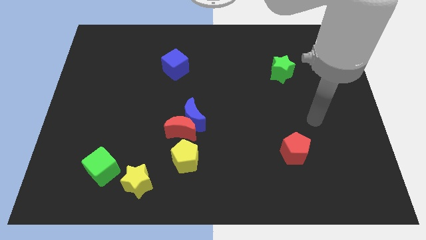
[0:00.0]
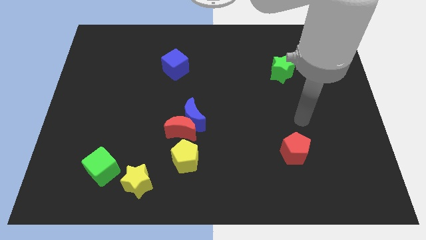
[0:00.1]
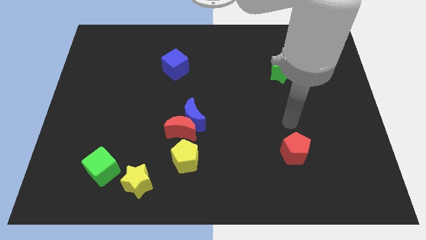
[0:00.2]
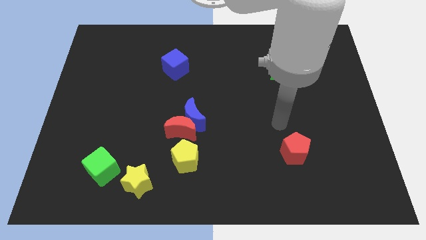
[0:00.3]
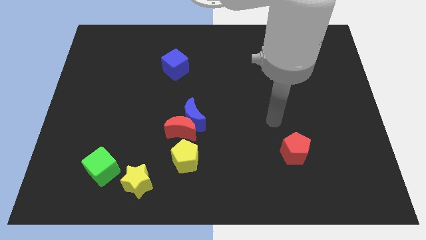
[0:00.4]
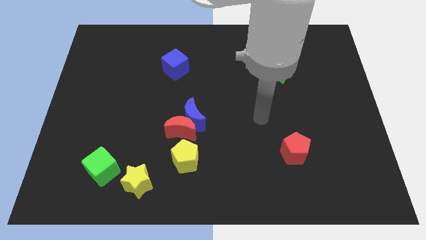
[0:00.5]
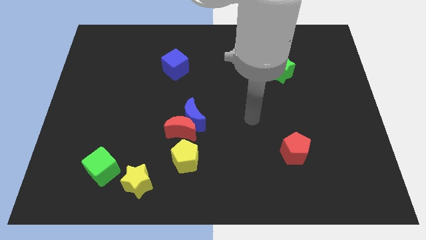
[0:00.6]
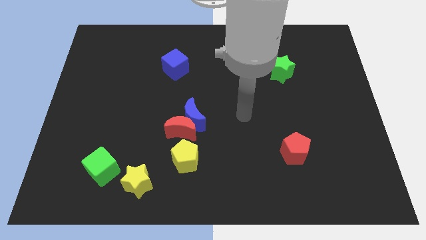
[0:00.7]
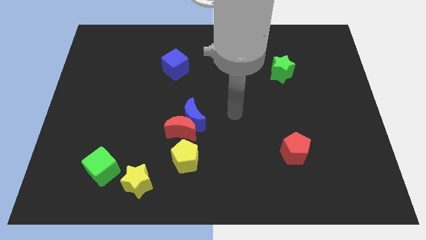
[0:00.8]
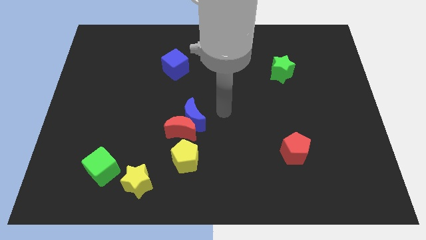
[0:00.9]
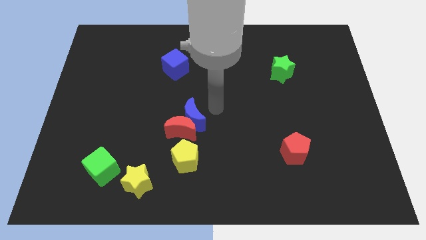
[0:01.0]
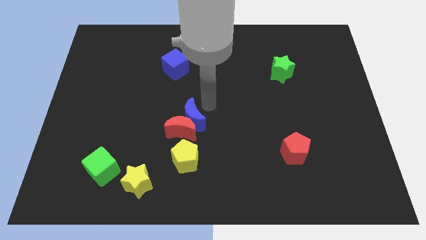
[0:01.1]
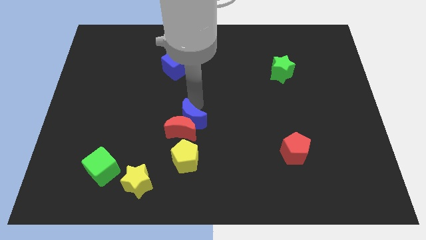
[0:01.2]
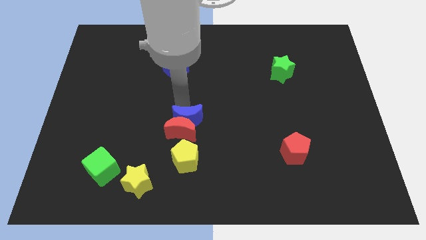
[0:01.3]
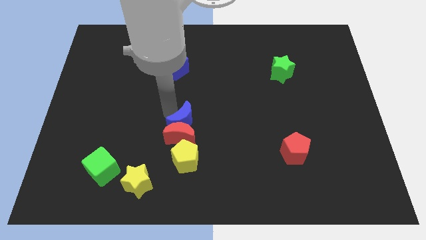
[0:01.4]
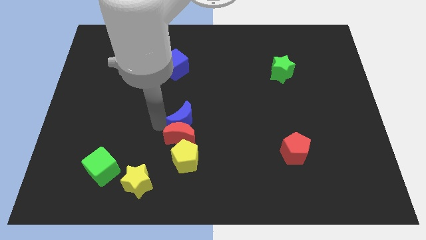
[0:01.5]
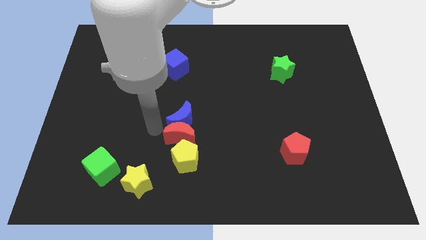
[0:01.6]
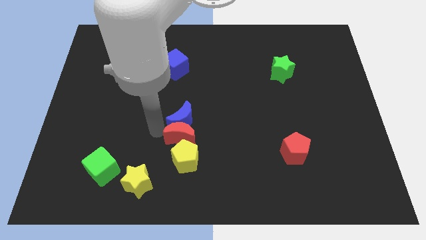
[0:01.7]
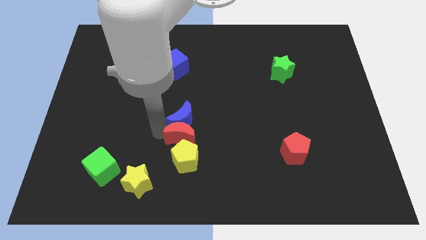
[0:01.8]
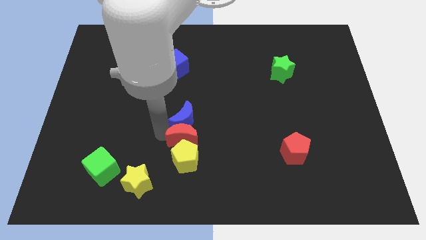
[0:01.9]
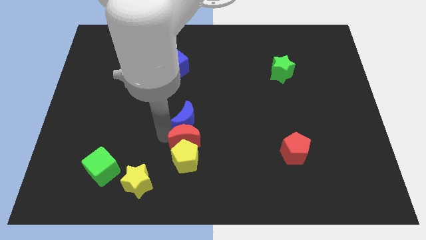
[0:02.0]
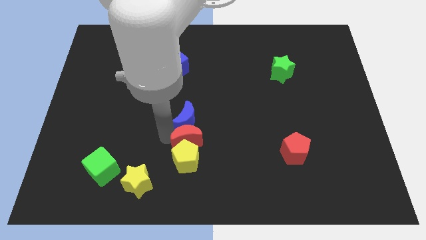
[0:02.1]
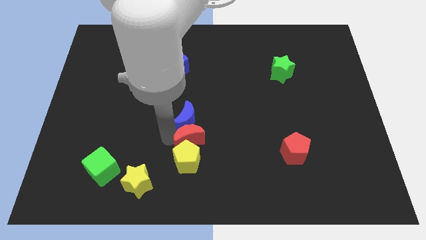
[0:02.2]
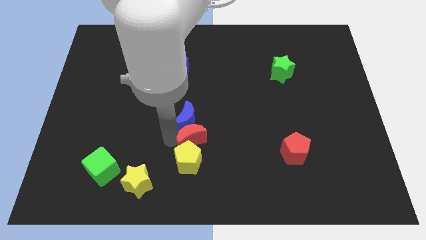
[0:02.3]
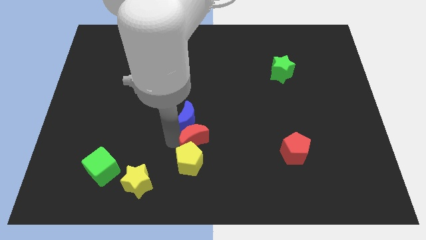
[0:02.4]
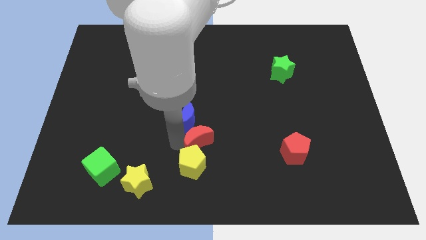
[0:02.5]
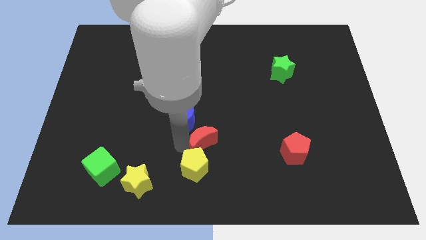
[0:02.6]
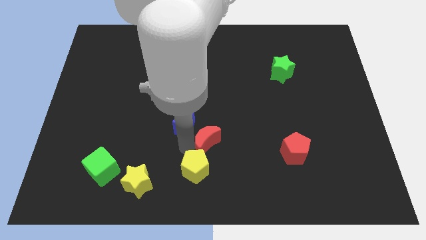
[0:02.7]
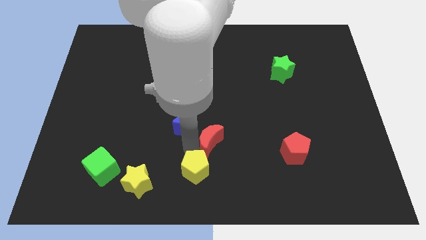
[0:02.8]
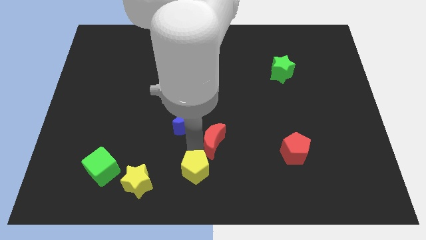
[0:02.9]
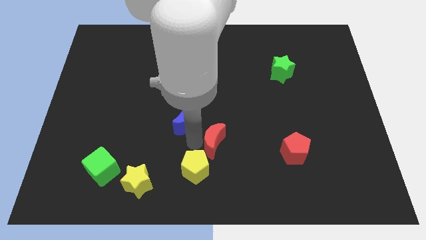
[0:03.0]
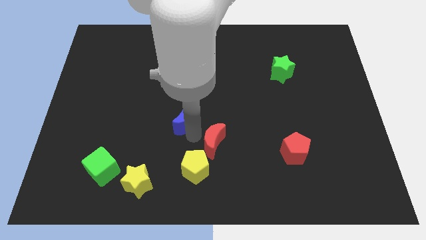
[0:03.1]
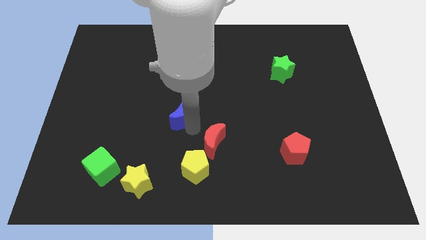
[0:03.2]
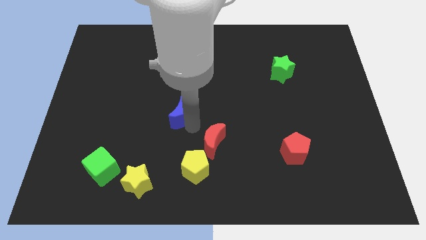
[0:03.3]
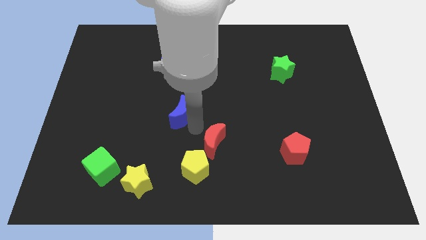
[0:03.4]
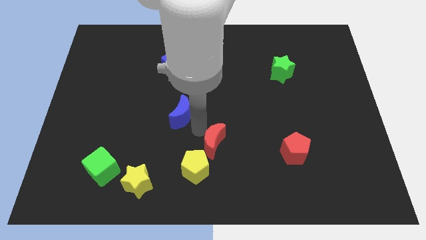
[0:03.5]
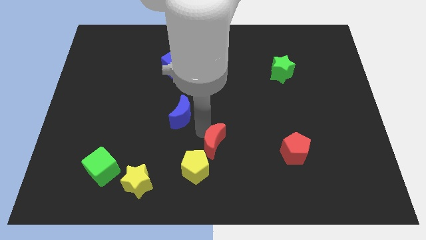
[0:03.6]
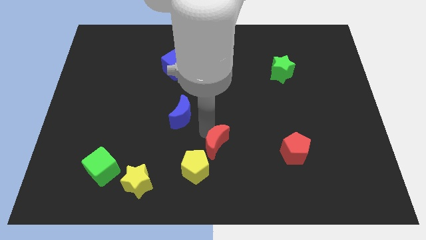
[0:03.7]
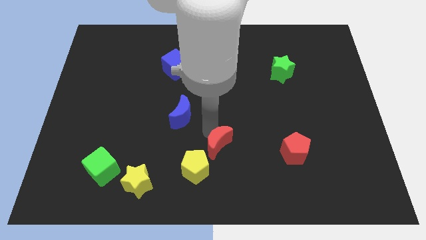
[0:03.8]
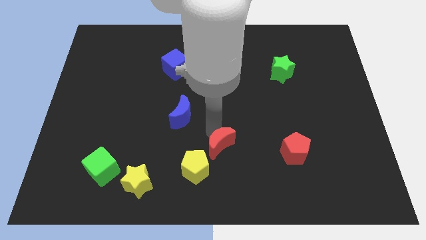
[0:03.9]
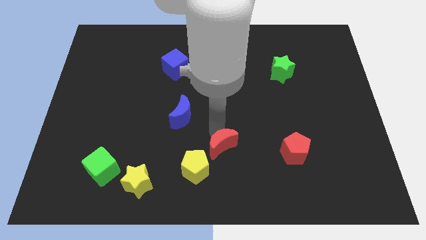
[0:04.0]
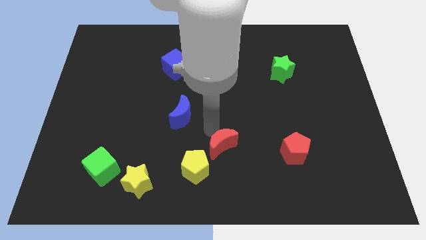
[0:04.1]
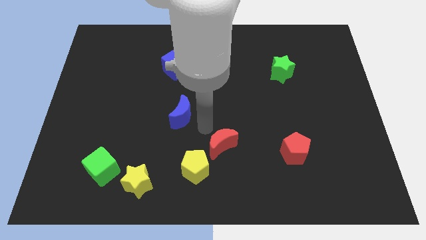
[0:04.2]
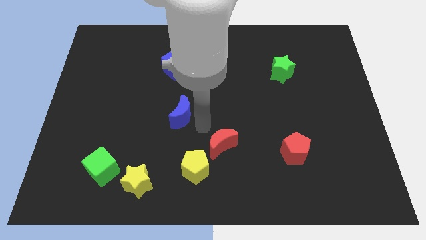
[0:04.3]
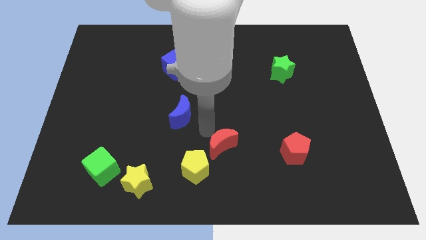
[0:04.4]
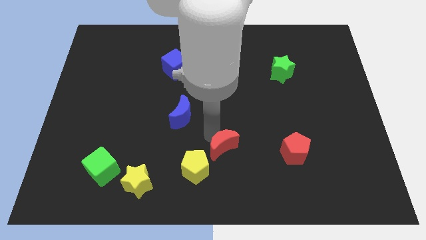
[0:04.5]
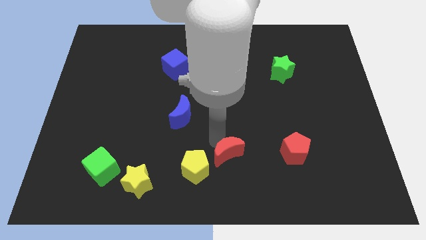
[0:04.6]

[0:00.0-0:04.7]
slide the red moon to the right side of the yellow pentagon

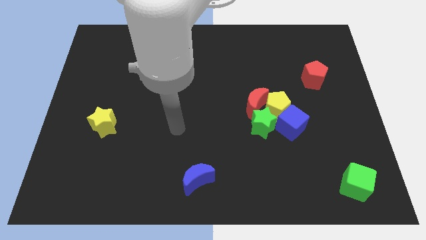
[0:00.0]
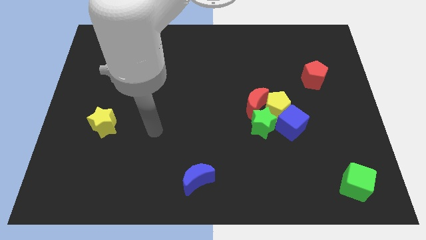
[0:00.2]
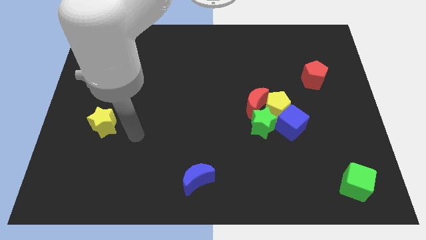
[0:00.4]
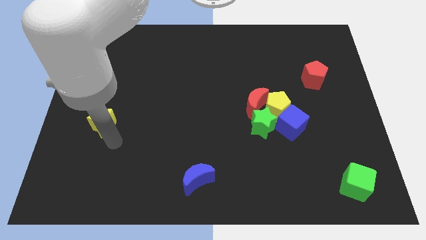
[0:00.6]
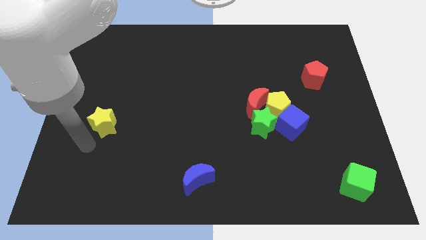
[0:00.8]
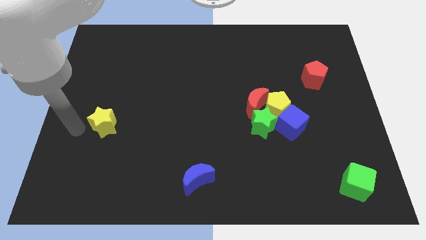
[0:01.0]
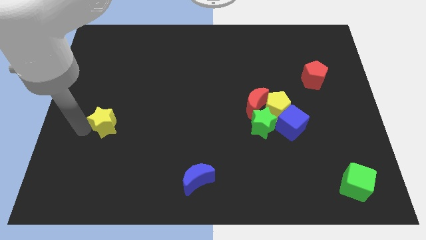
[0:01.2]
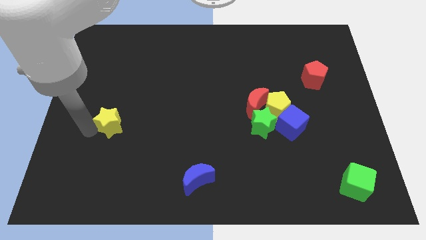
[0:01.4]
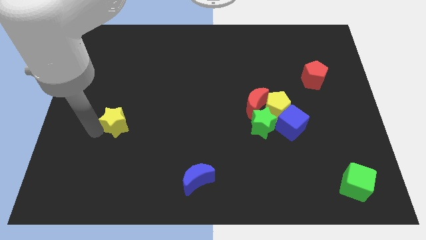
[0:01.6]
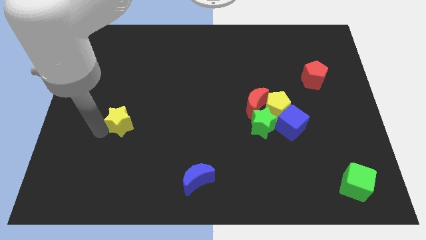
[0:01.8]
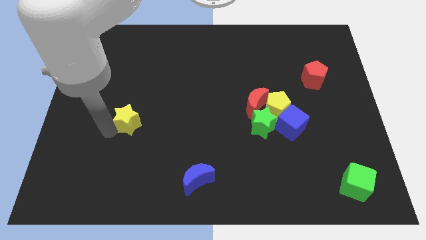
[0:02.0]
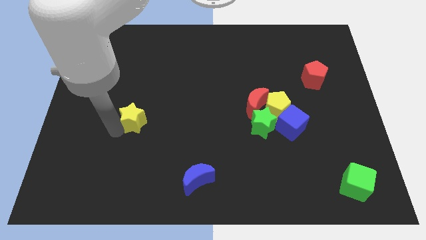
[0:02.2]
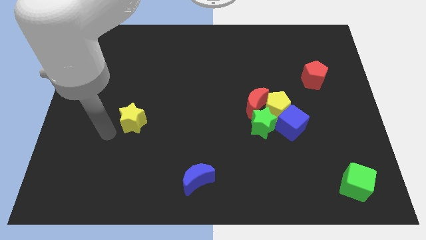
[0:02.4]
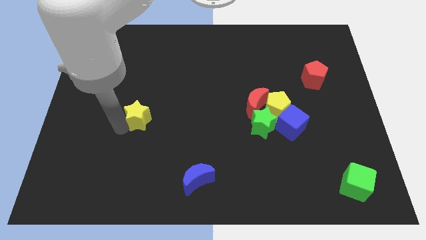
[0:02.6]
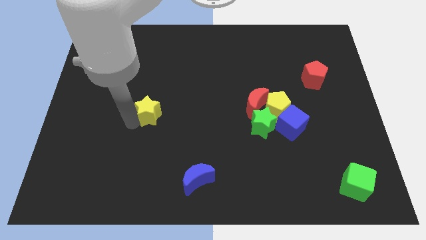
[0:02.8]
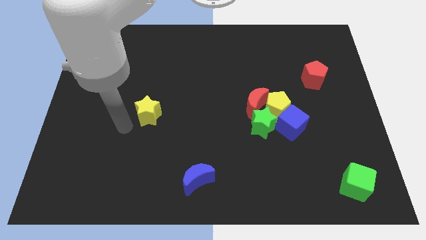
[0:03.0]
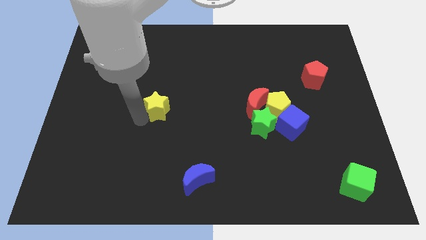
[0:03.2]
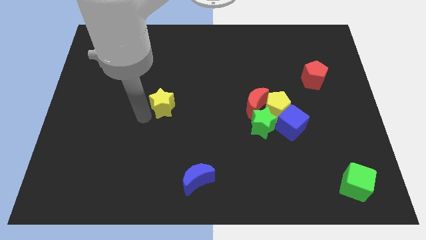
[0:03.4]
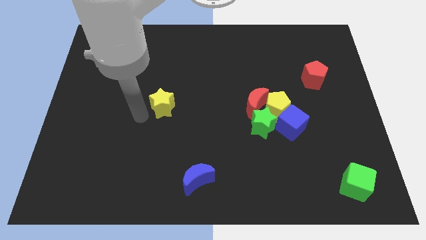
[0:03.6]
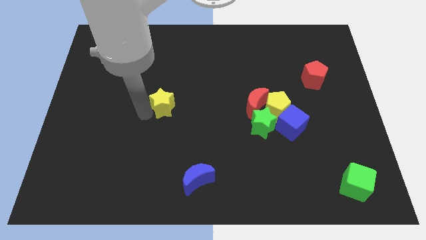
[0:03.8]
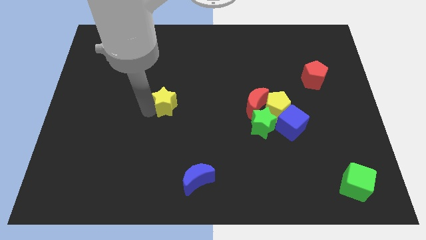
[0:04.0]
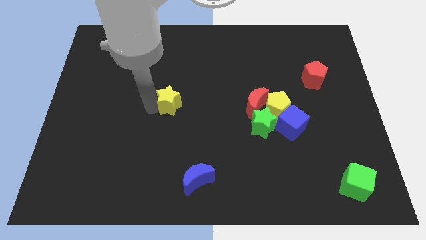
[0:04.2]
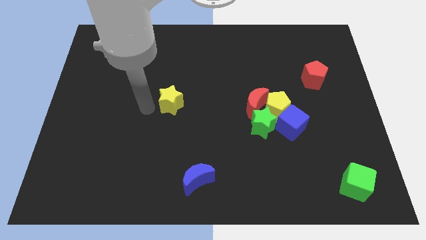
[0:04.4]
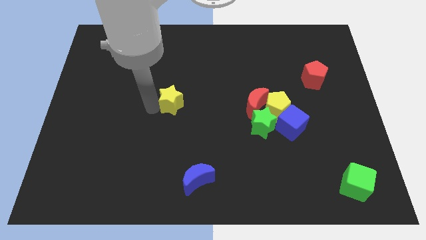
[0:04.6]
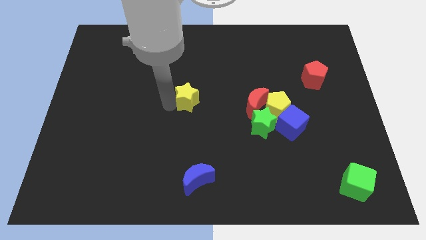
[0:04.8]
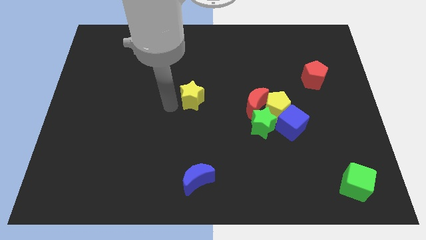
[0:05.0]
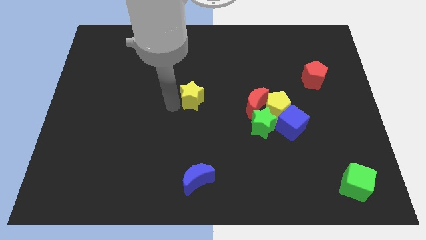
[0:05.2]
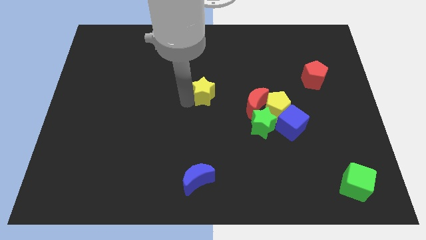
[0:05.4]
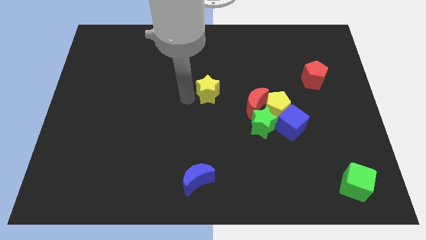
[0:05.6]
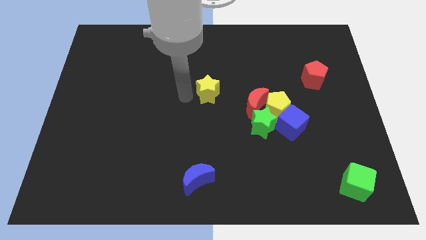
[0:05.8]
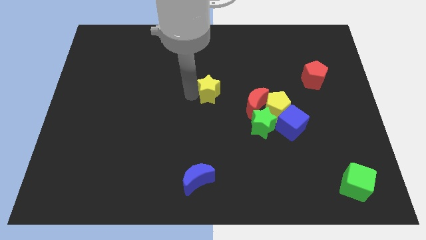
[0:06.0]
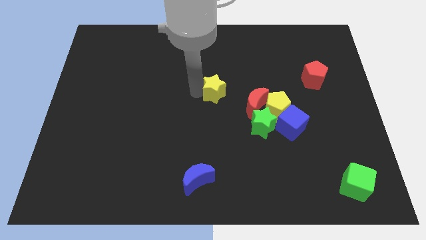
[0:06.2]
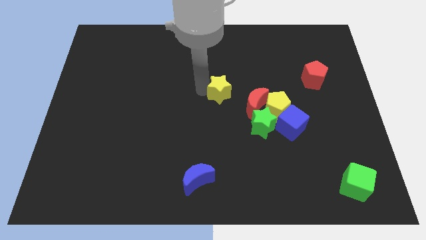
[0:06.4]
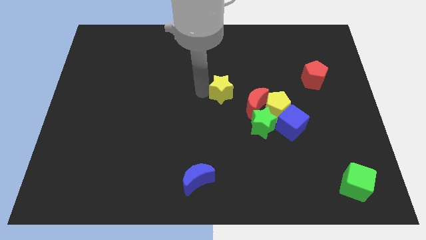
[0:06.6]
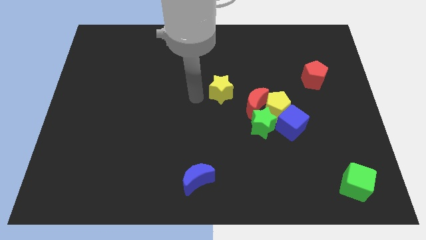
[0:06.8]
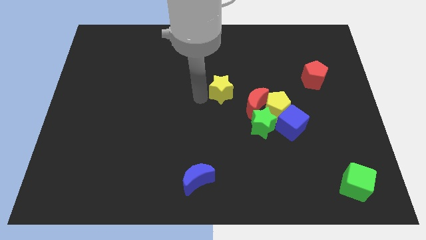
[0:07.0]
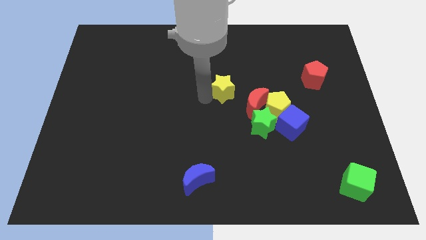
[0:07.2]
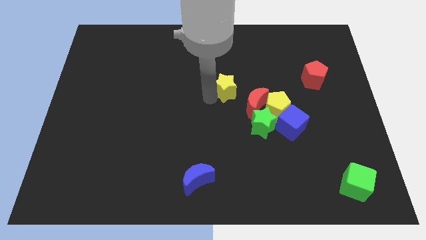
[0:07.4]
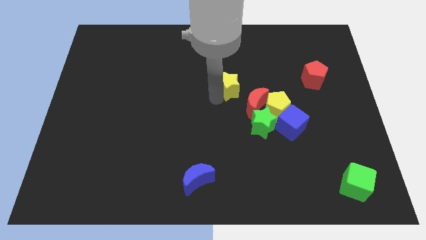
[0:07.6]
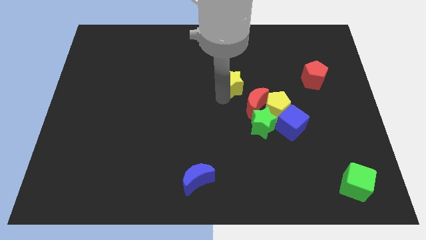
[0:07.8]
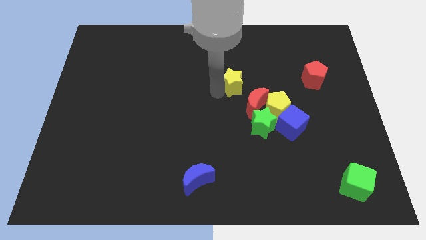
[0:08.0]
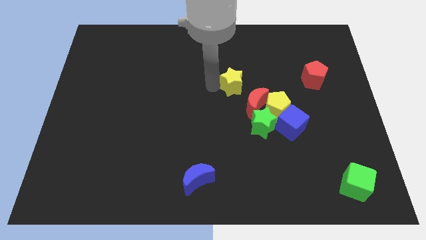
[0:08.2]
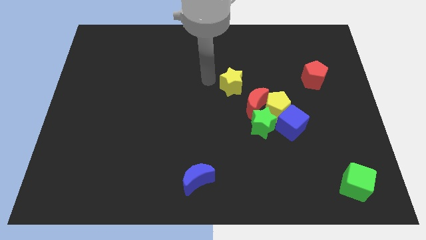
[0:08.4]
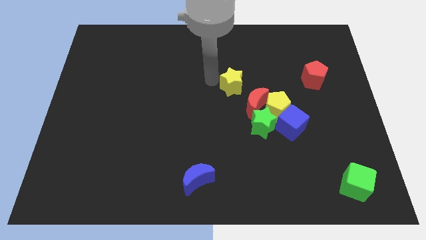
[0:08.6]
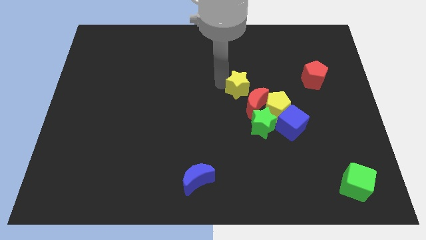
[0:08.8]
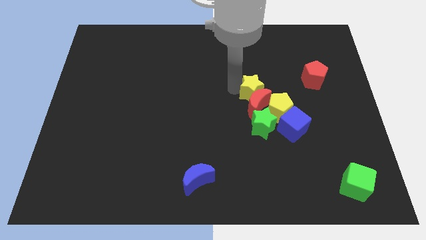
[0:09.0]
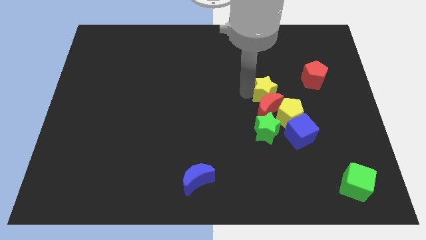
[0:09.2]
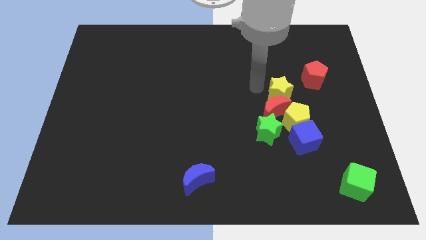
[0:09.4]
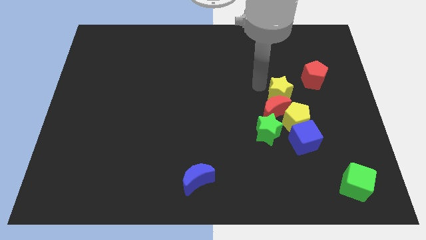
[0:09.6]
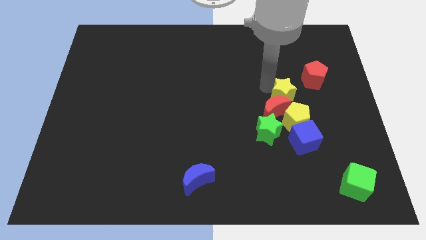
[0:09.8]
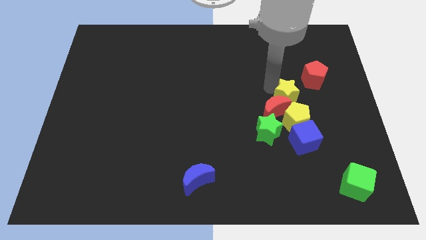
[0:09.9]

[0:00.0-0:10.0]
slide the yellow star just right of the red moon
